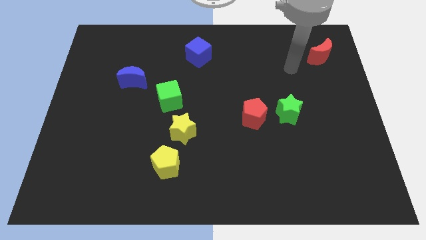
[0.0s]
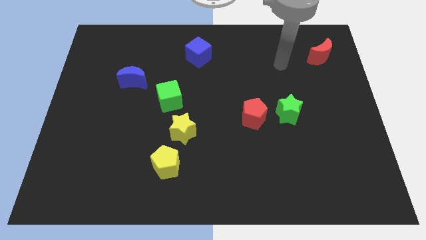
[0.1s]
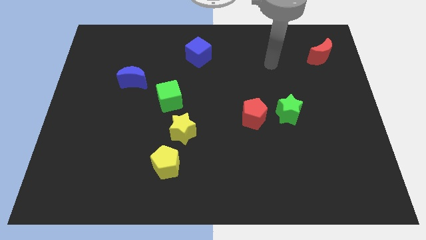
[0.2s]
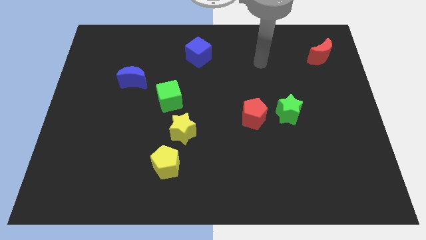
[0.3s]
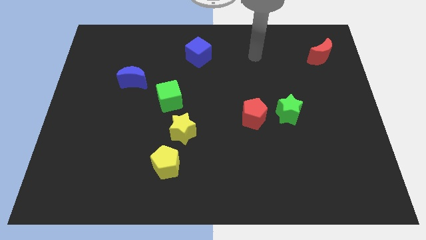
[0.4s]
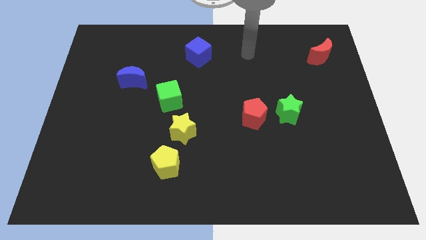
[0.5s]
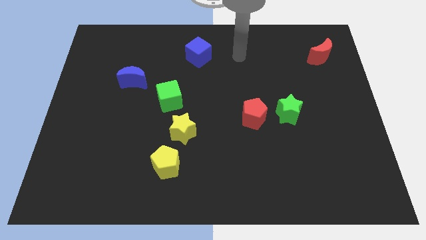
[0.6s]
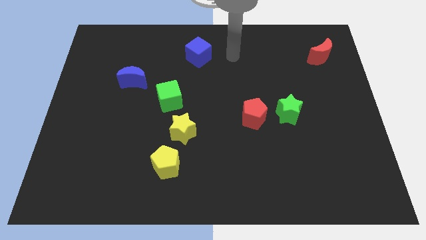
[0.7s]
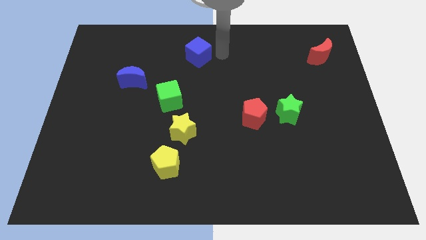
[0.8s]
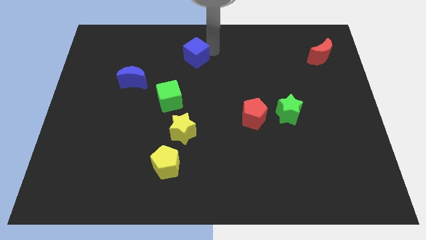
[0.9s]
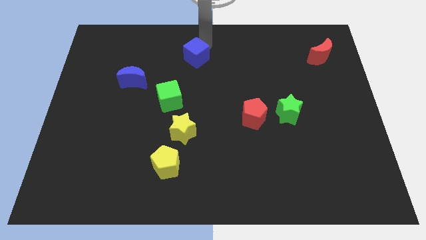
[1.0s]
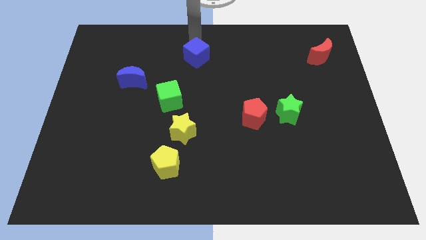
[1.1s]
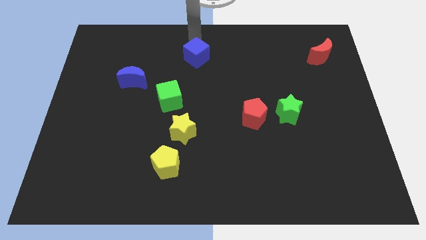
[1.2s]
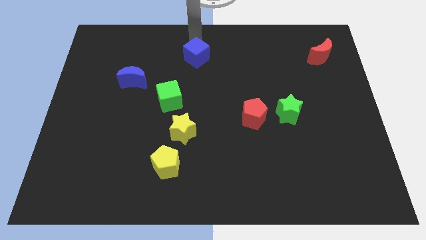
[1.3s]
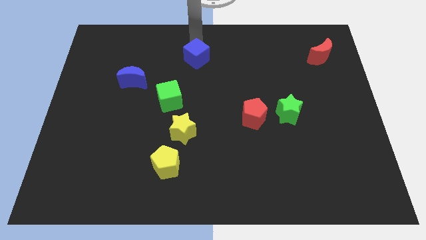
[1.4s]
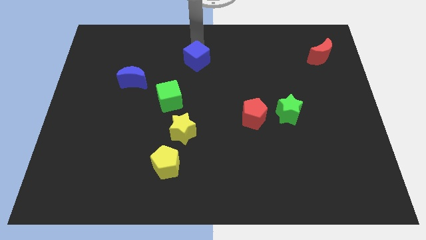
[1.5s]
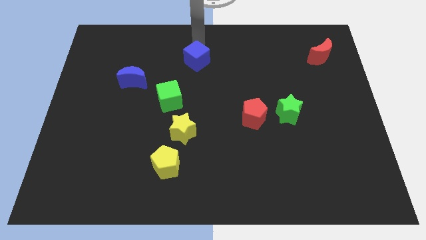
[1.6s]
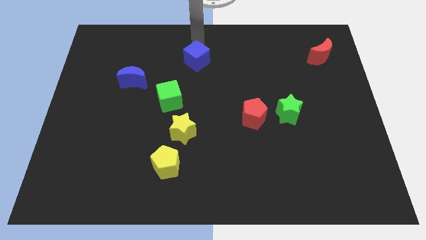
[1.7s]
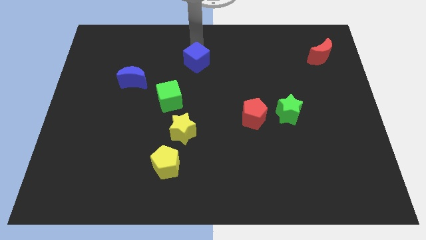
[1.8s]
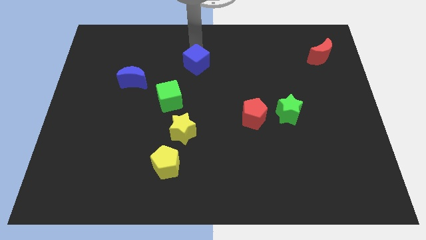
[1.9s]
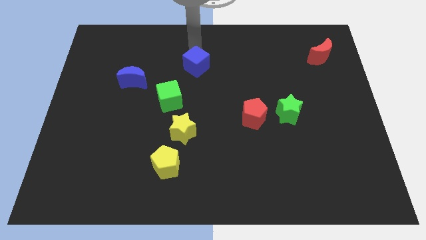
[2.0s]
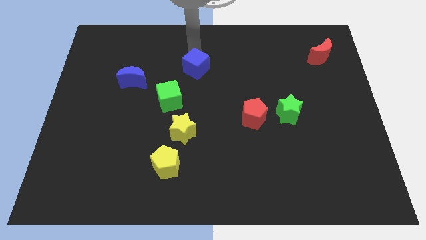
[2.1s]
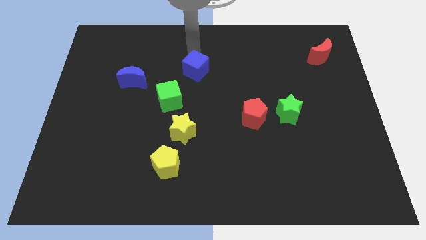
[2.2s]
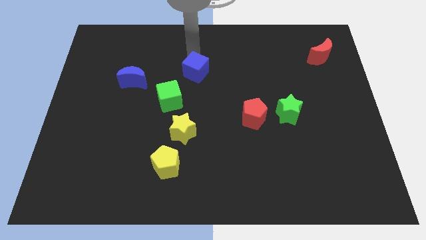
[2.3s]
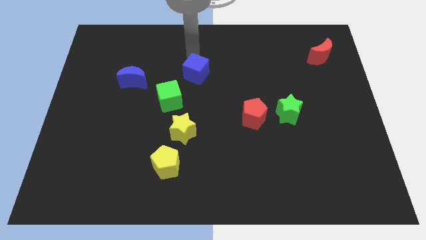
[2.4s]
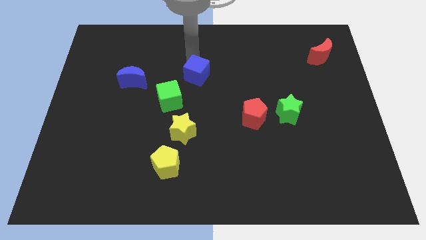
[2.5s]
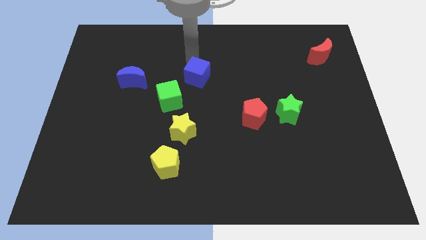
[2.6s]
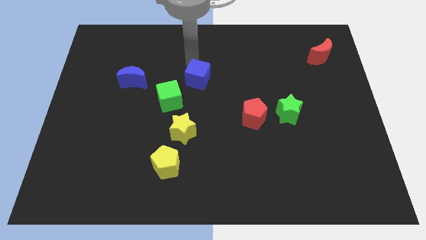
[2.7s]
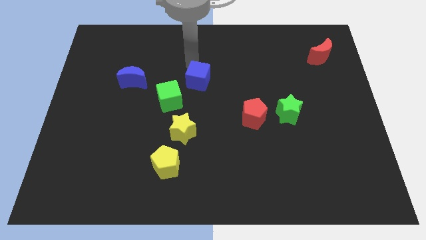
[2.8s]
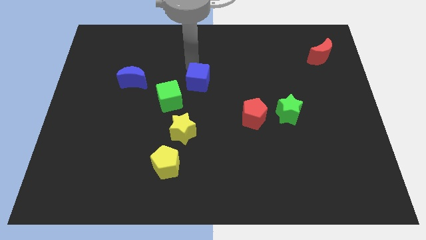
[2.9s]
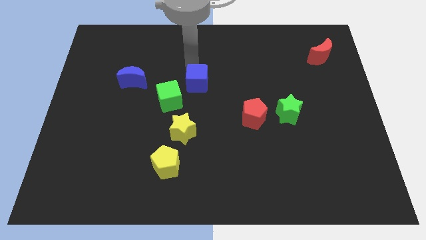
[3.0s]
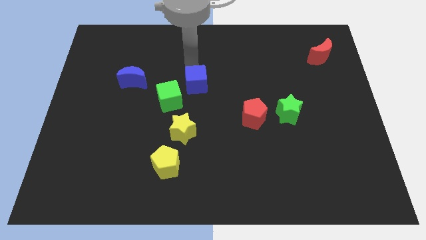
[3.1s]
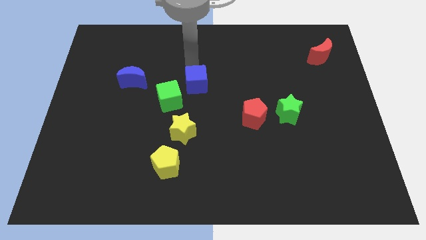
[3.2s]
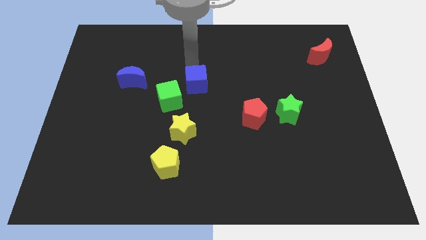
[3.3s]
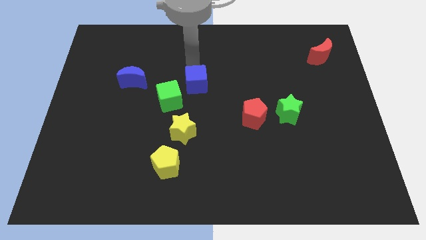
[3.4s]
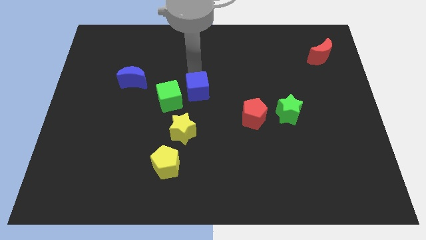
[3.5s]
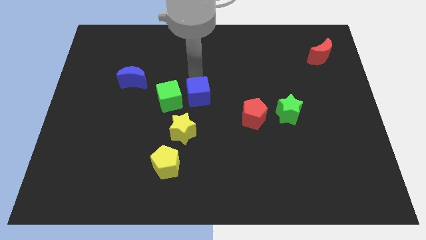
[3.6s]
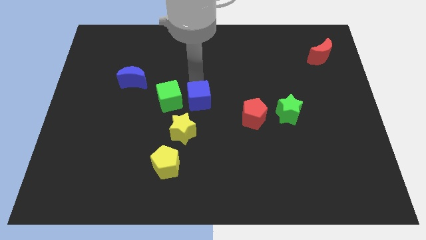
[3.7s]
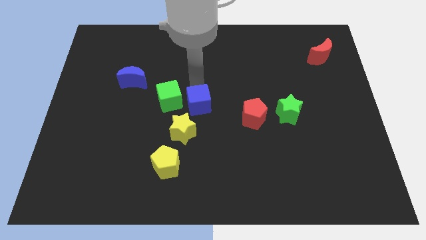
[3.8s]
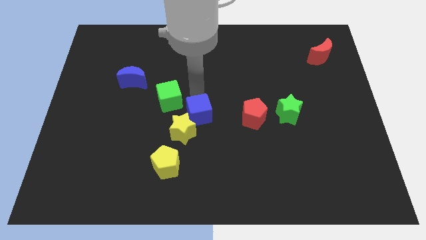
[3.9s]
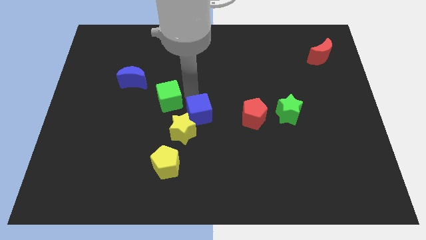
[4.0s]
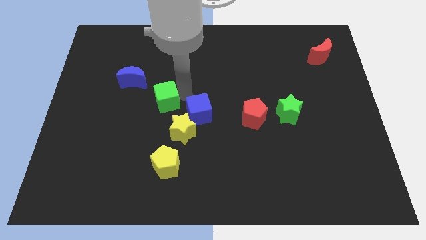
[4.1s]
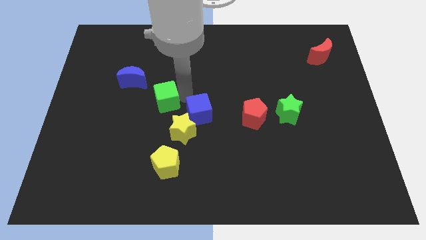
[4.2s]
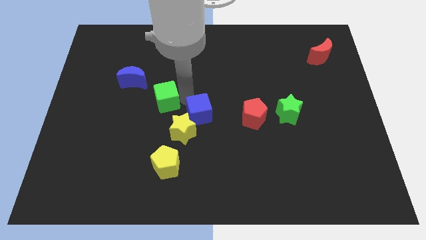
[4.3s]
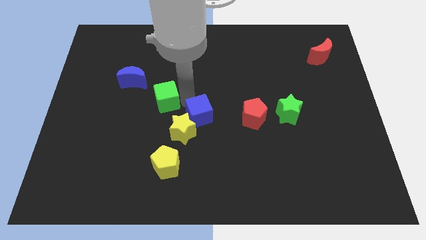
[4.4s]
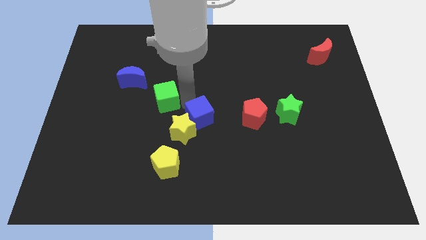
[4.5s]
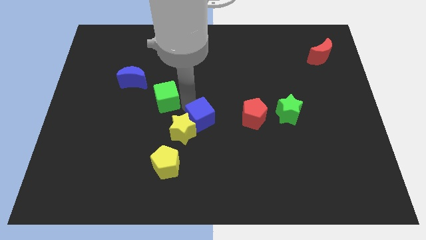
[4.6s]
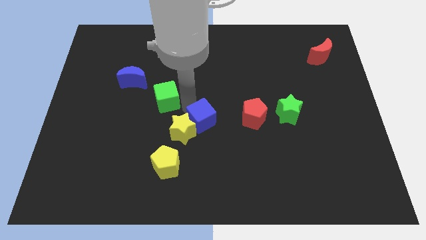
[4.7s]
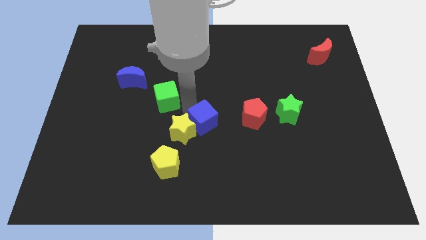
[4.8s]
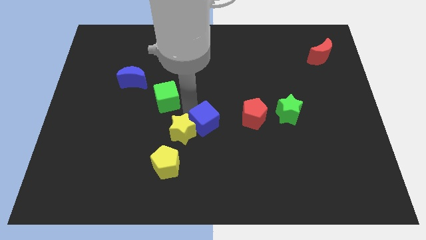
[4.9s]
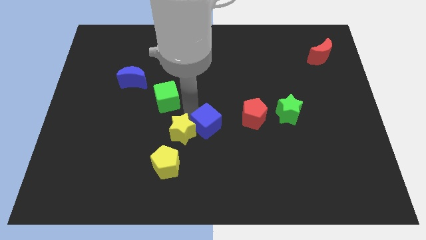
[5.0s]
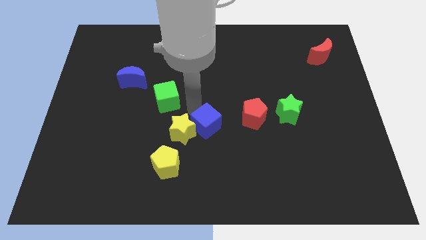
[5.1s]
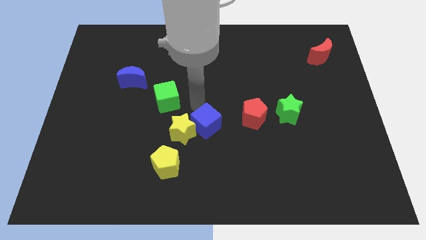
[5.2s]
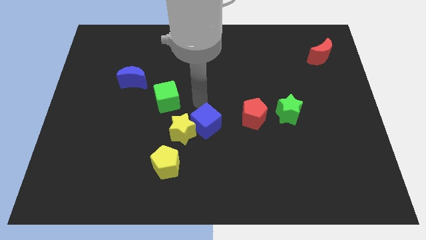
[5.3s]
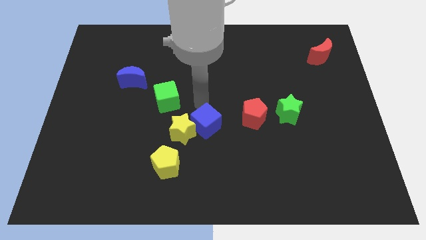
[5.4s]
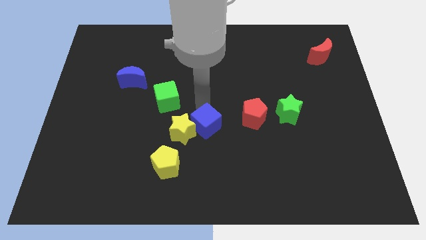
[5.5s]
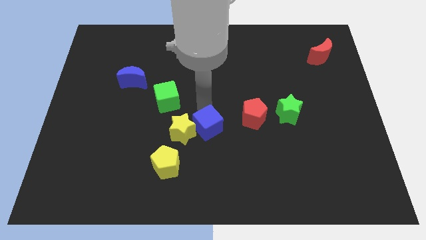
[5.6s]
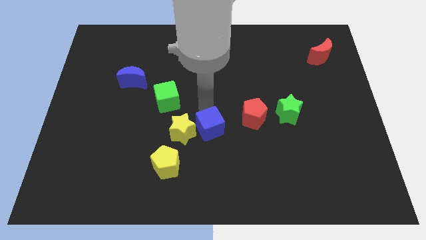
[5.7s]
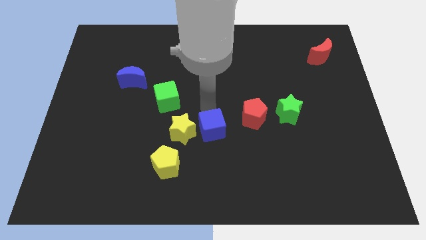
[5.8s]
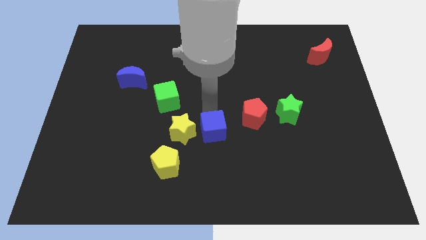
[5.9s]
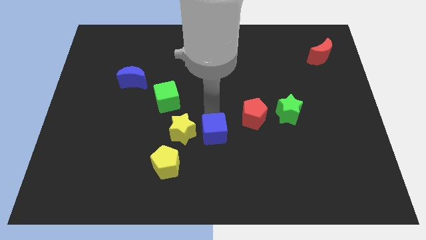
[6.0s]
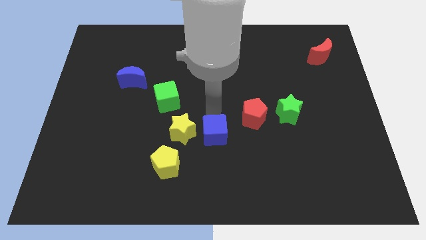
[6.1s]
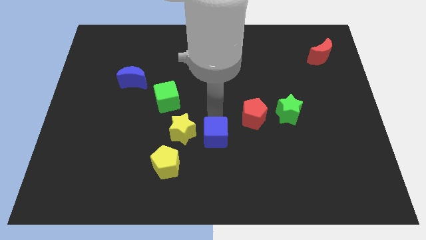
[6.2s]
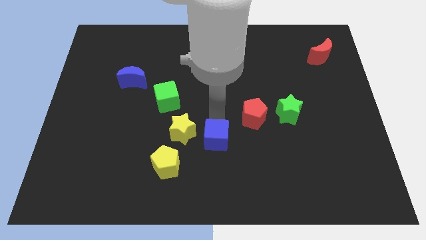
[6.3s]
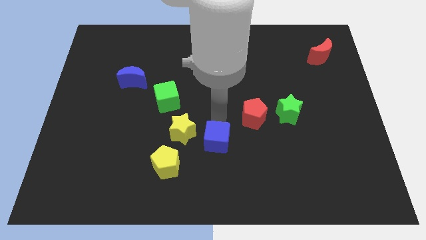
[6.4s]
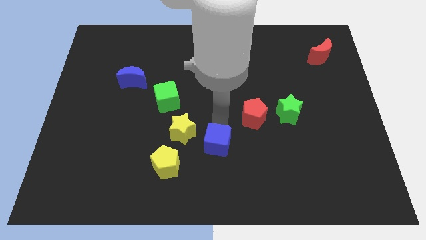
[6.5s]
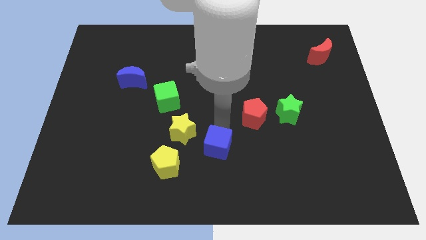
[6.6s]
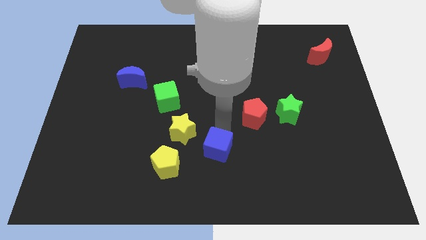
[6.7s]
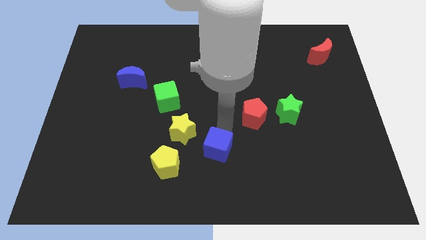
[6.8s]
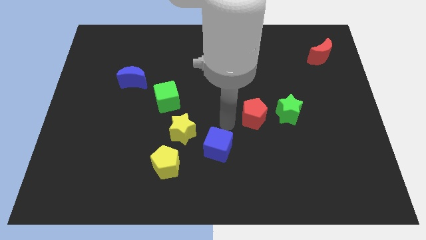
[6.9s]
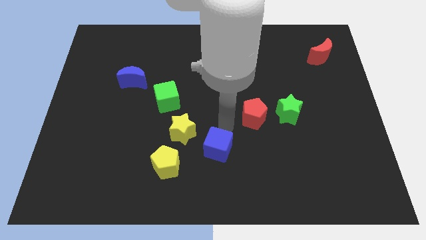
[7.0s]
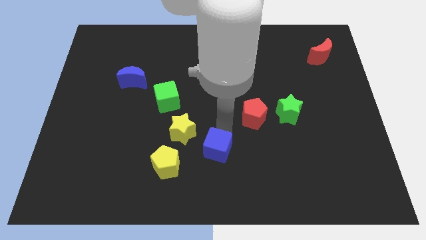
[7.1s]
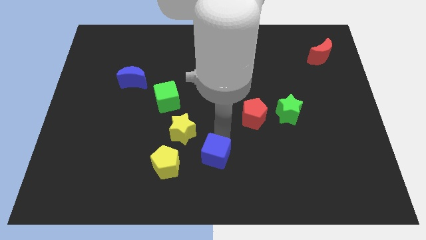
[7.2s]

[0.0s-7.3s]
push the blue cube to the bottom side
